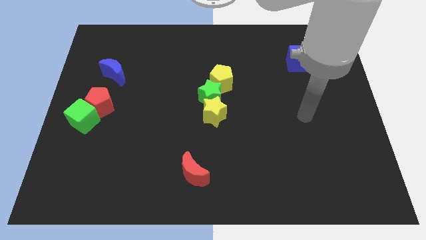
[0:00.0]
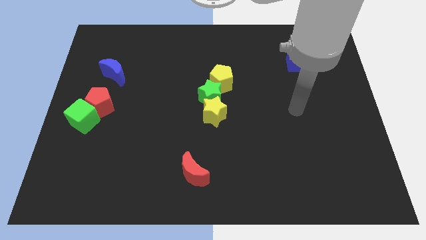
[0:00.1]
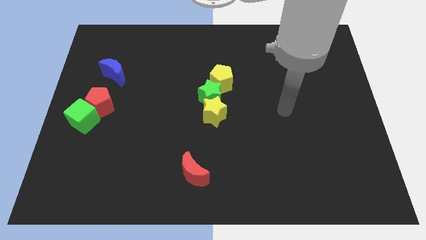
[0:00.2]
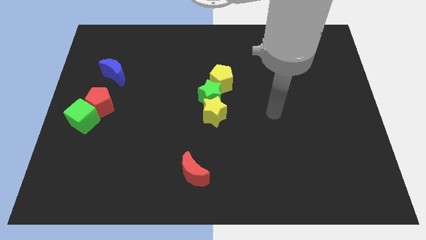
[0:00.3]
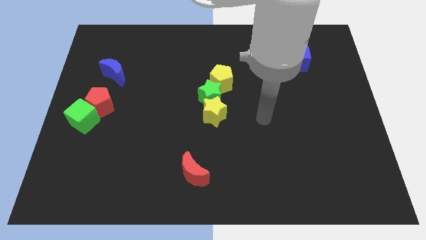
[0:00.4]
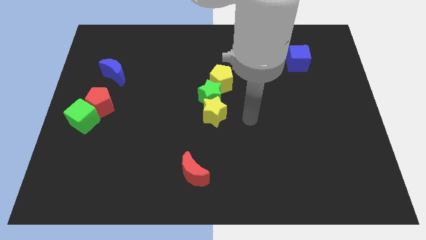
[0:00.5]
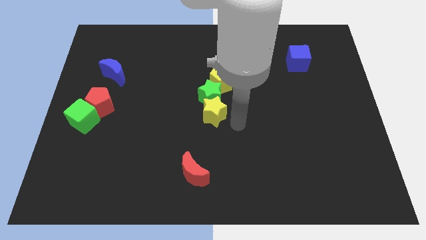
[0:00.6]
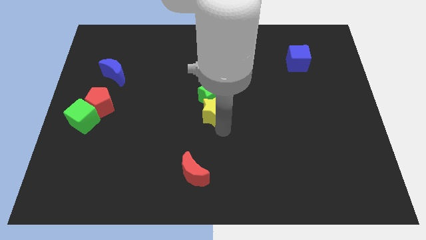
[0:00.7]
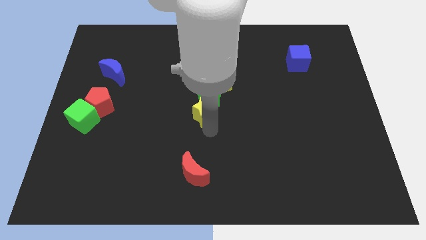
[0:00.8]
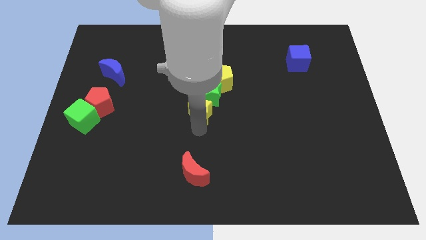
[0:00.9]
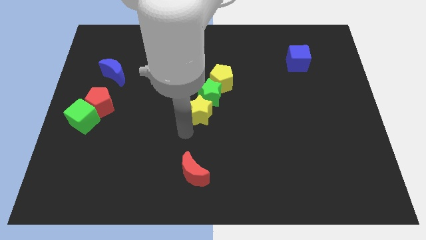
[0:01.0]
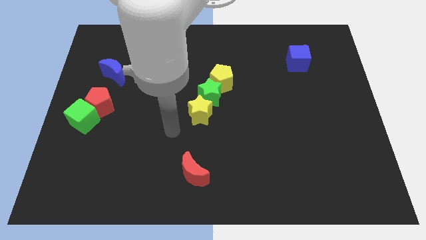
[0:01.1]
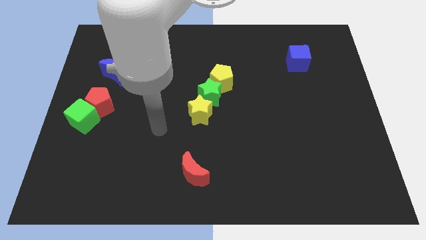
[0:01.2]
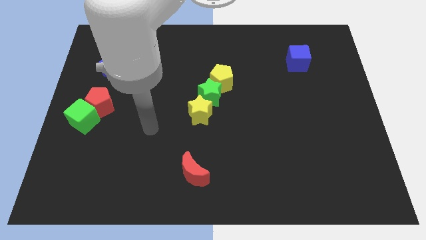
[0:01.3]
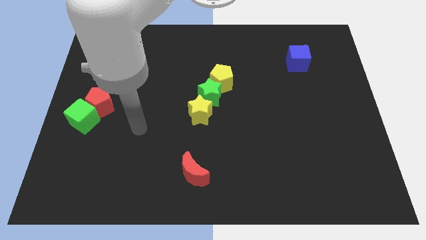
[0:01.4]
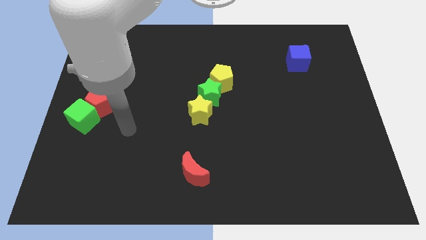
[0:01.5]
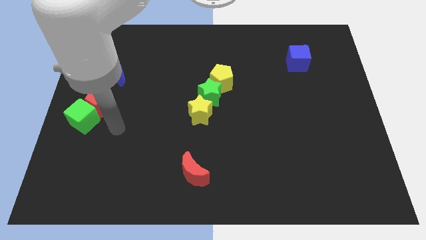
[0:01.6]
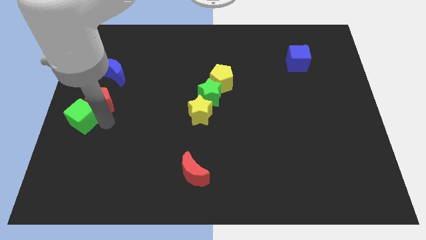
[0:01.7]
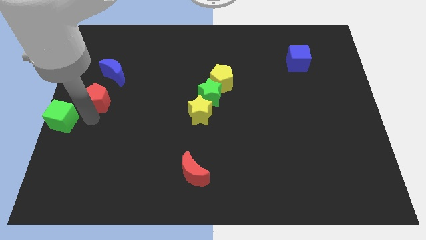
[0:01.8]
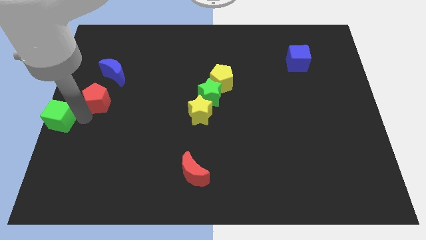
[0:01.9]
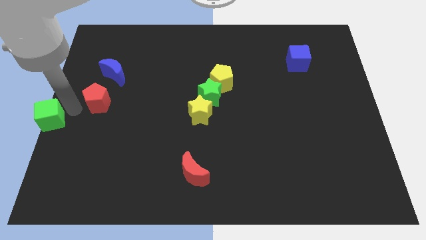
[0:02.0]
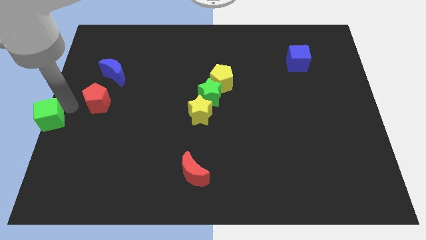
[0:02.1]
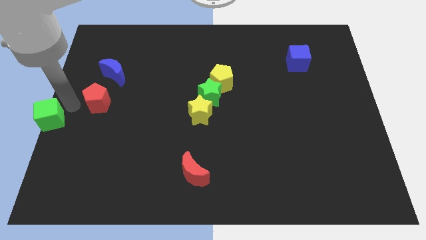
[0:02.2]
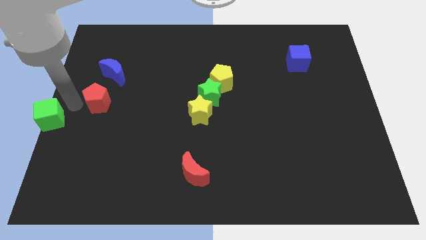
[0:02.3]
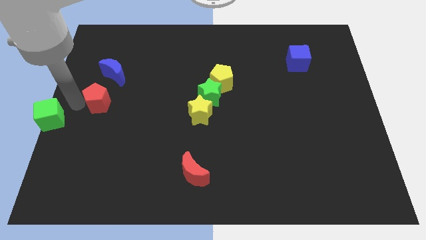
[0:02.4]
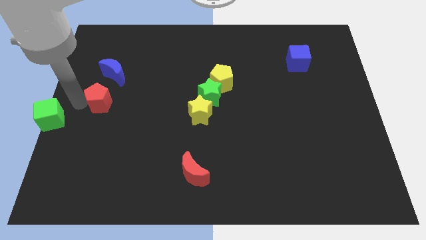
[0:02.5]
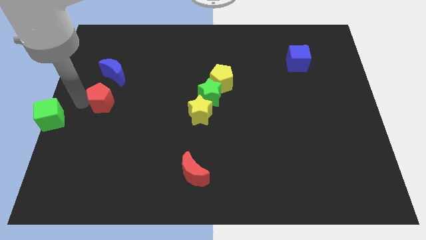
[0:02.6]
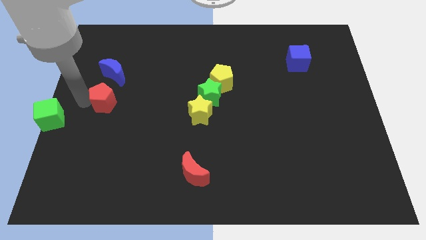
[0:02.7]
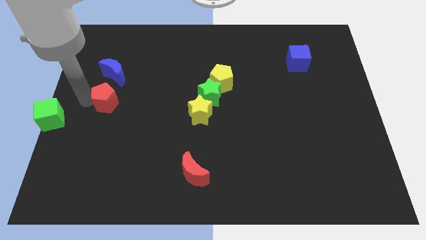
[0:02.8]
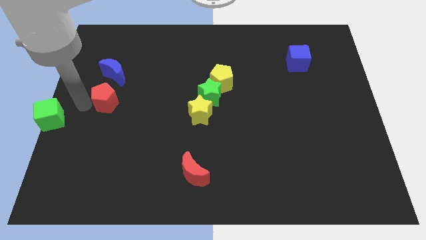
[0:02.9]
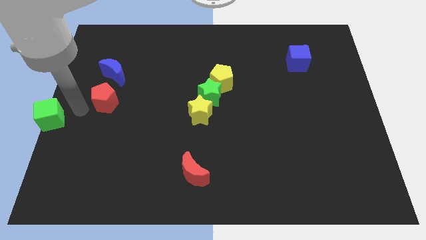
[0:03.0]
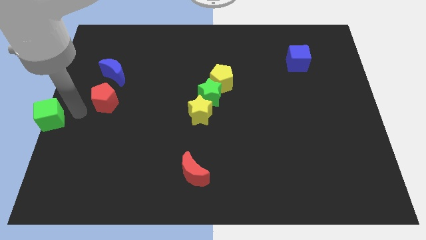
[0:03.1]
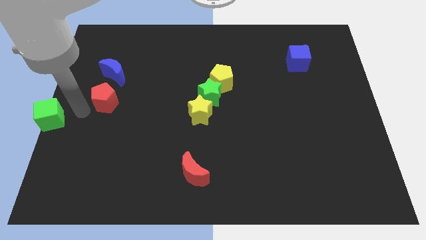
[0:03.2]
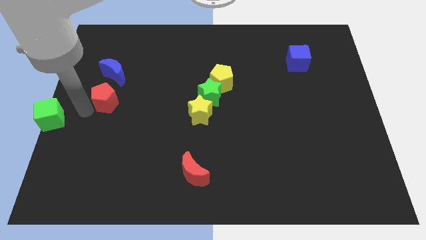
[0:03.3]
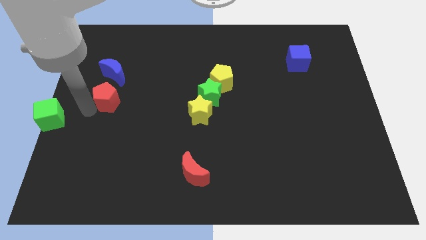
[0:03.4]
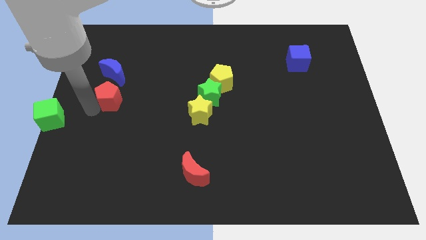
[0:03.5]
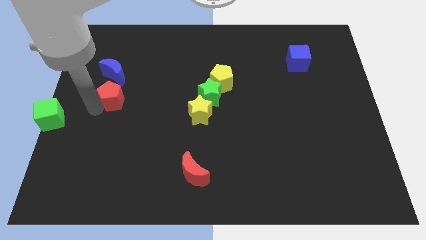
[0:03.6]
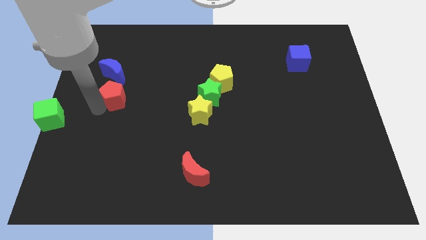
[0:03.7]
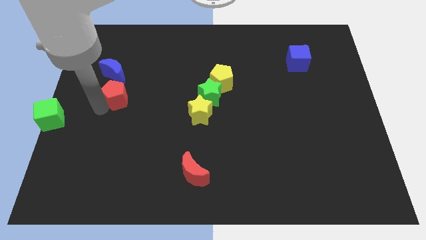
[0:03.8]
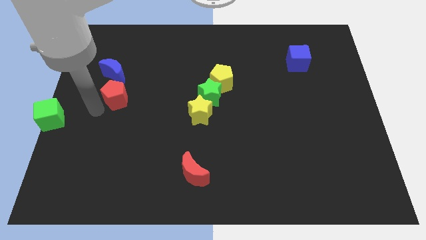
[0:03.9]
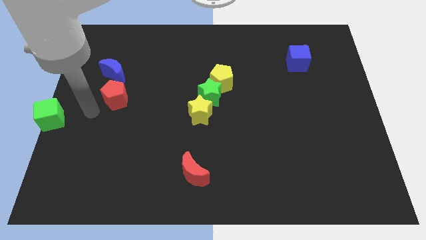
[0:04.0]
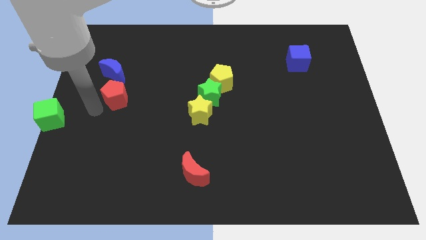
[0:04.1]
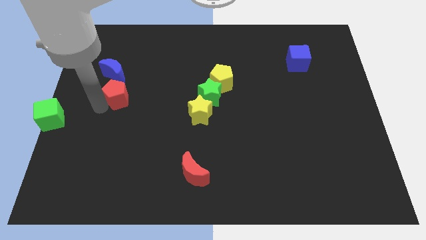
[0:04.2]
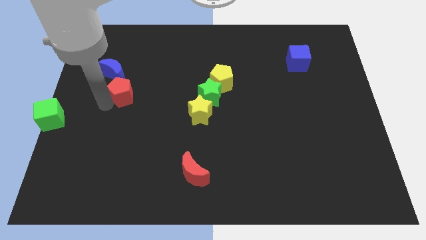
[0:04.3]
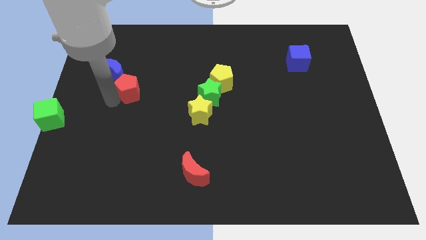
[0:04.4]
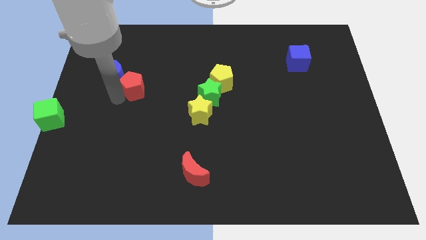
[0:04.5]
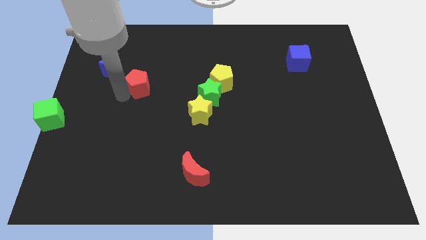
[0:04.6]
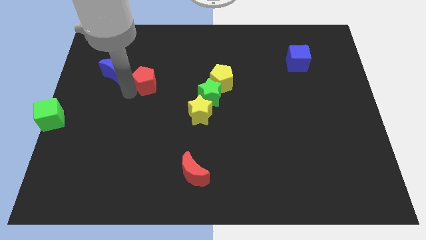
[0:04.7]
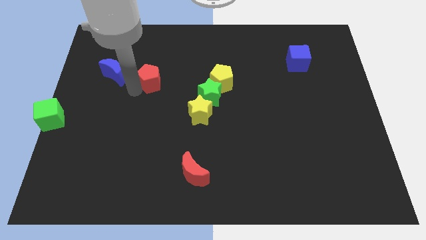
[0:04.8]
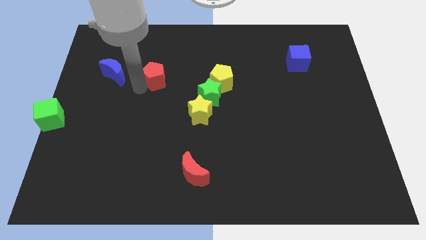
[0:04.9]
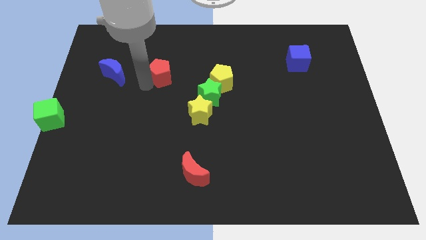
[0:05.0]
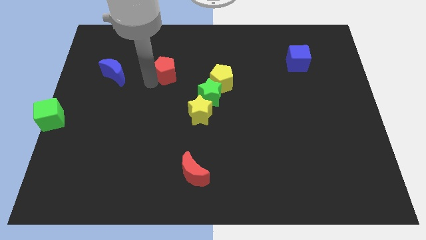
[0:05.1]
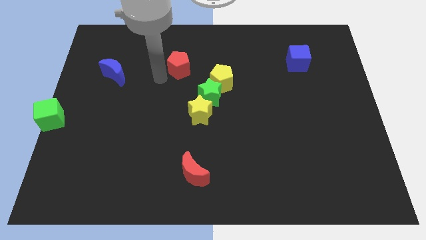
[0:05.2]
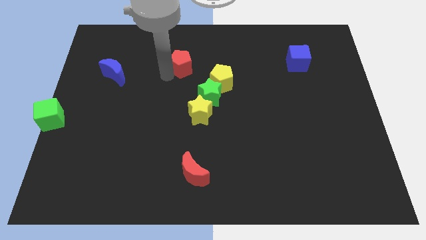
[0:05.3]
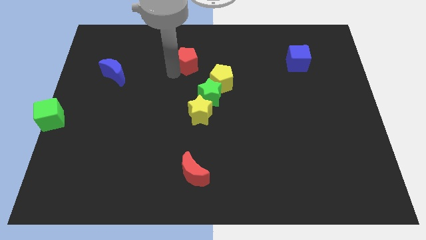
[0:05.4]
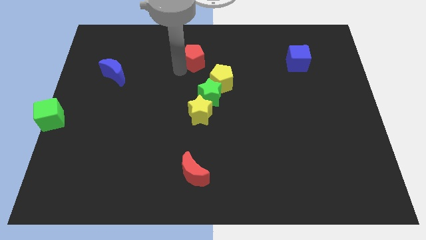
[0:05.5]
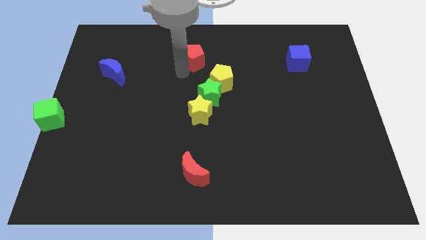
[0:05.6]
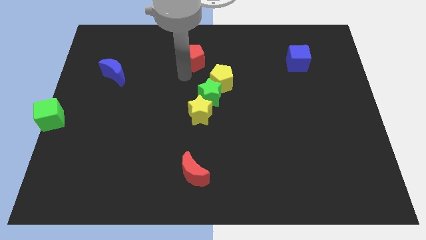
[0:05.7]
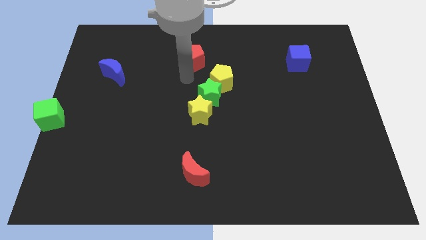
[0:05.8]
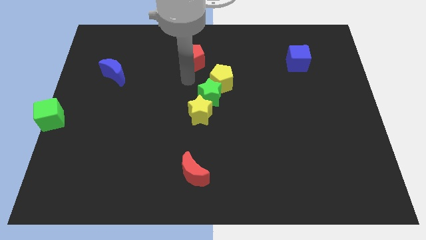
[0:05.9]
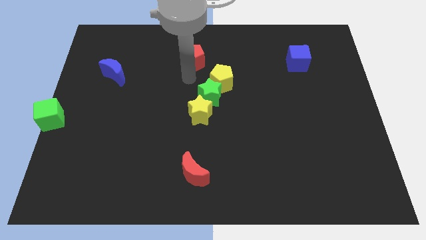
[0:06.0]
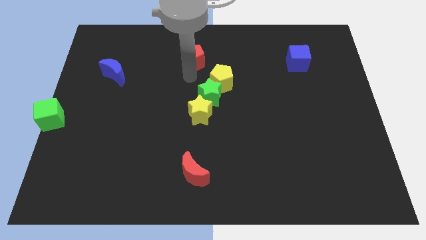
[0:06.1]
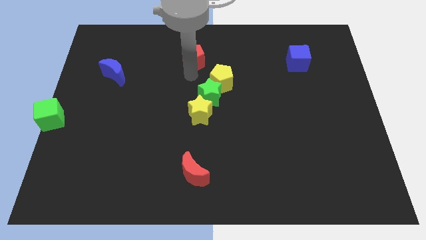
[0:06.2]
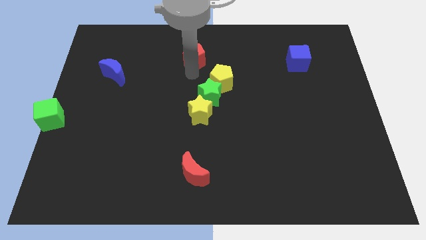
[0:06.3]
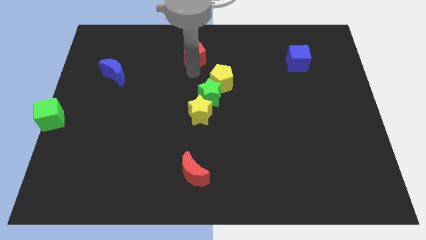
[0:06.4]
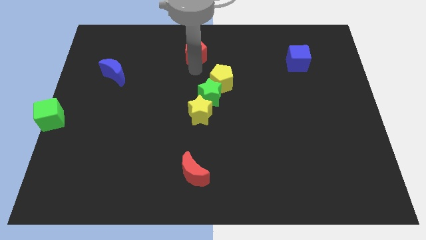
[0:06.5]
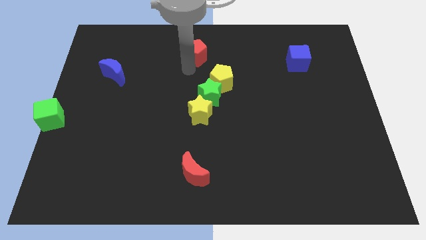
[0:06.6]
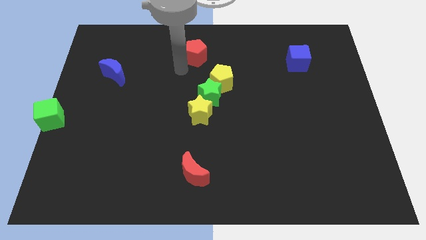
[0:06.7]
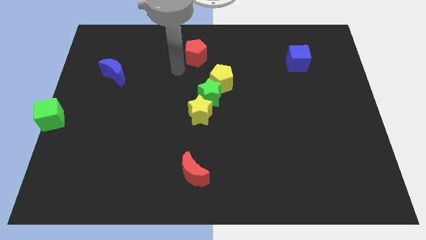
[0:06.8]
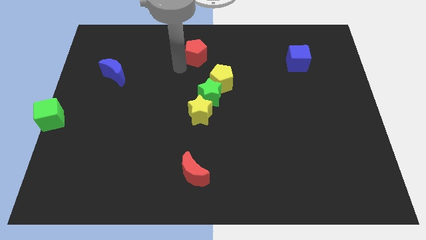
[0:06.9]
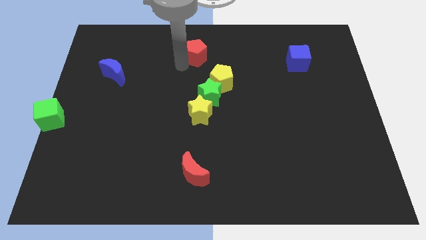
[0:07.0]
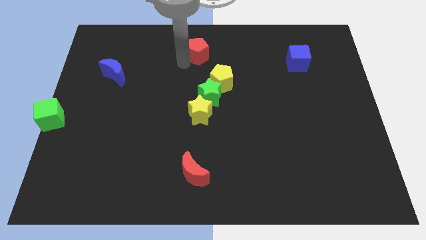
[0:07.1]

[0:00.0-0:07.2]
move the red pentagon to the top
